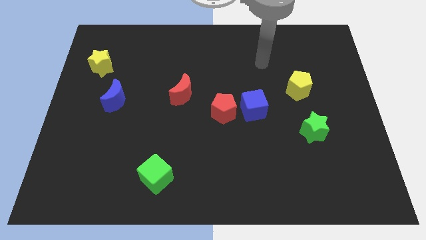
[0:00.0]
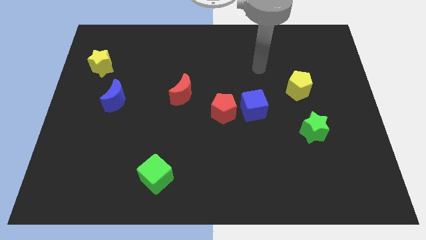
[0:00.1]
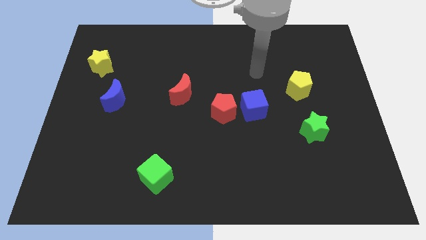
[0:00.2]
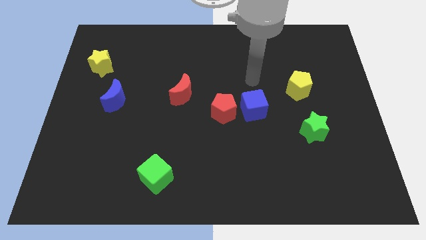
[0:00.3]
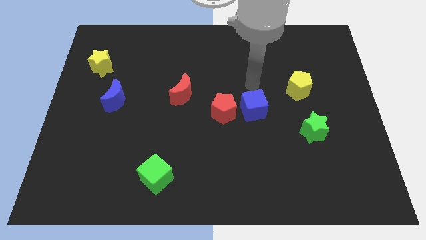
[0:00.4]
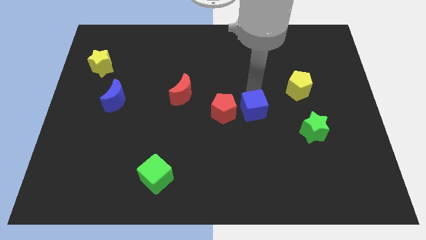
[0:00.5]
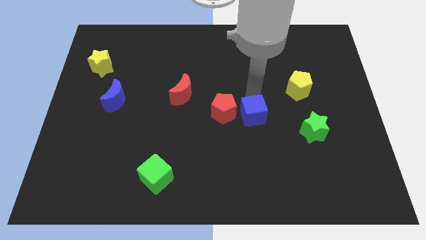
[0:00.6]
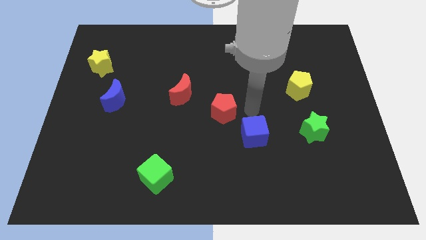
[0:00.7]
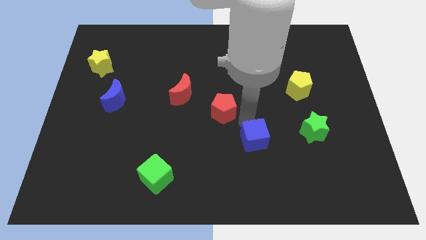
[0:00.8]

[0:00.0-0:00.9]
pull the red pentagon apart from the blue cube

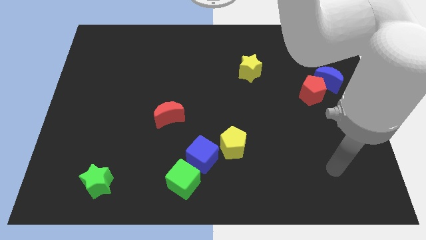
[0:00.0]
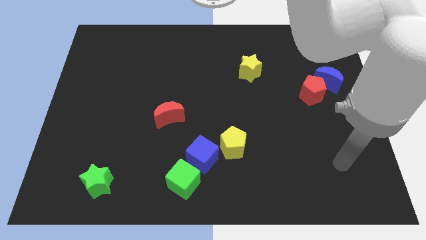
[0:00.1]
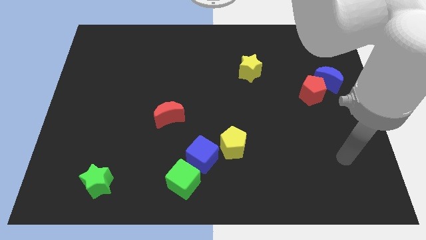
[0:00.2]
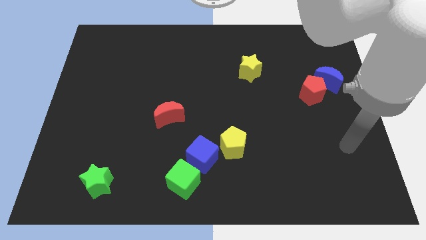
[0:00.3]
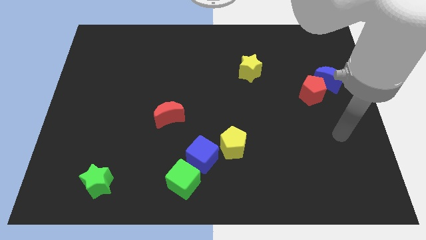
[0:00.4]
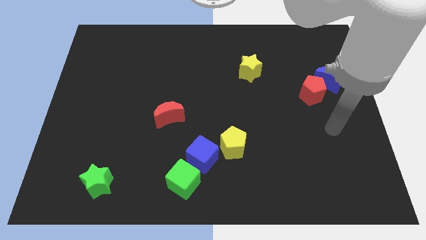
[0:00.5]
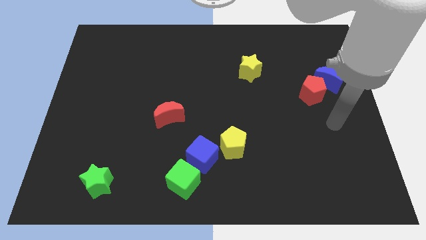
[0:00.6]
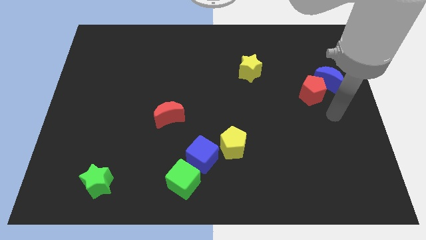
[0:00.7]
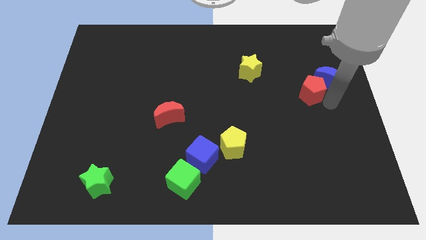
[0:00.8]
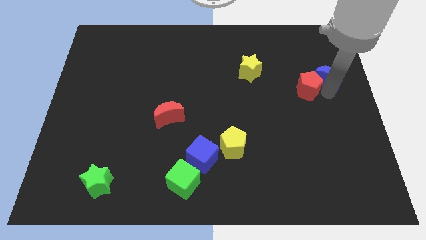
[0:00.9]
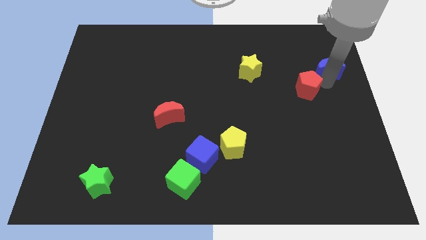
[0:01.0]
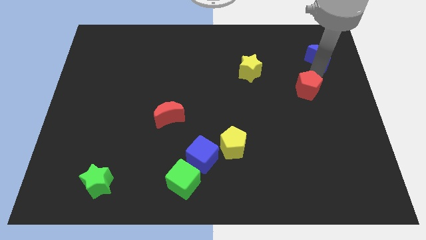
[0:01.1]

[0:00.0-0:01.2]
move the red pentagon away from the blue moon

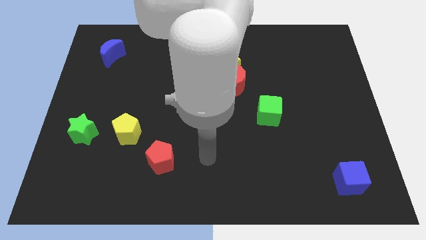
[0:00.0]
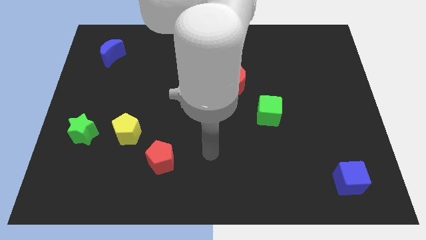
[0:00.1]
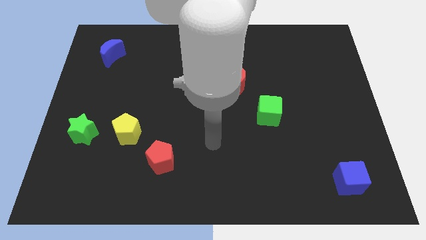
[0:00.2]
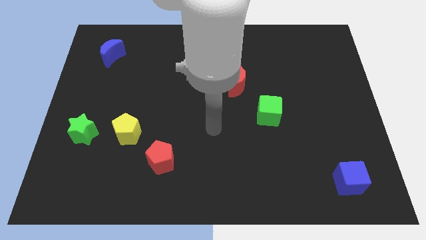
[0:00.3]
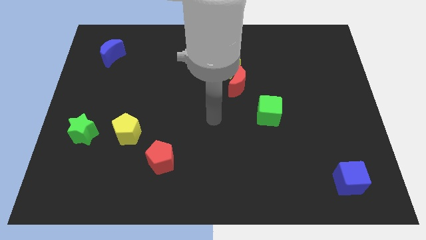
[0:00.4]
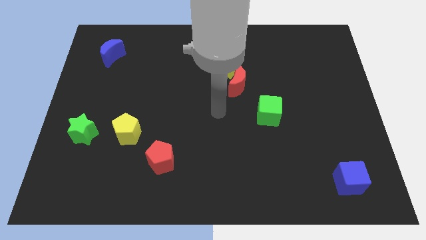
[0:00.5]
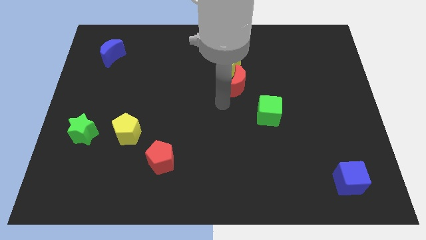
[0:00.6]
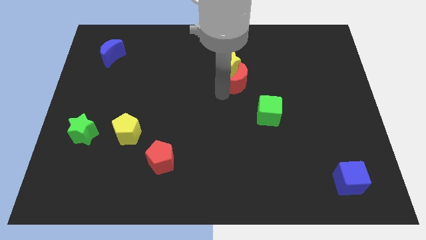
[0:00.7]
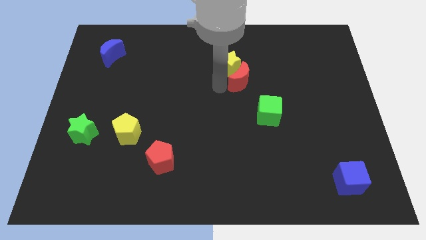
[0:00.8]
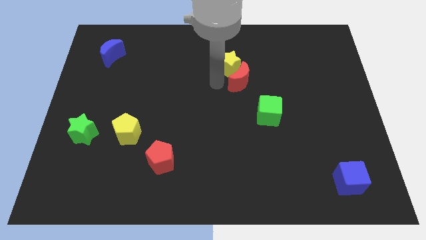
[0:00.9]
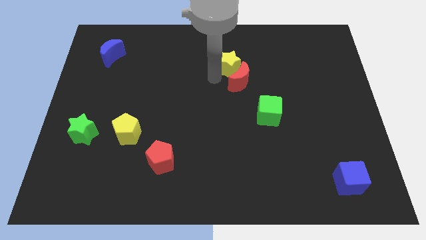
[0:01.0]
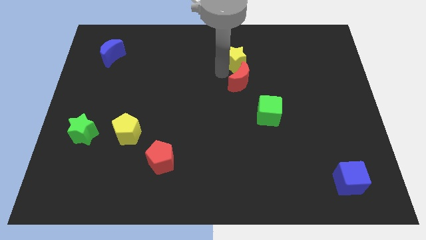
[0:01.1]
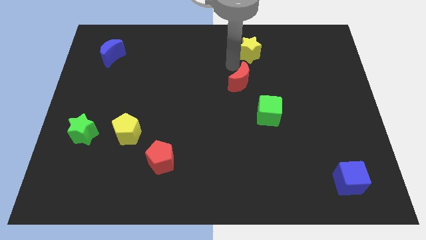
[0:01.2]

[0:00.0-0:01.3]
move the red moon away from the yellow star

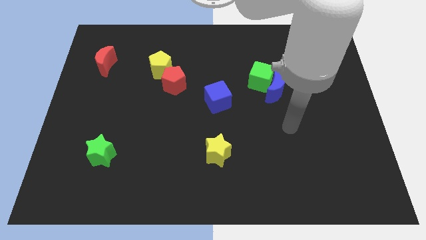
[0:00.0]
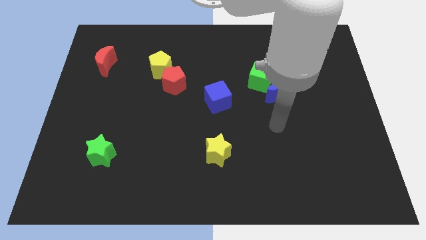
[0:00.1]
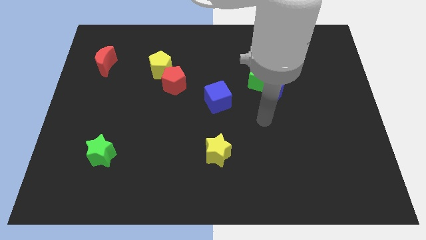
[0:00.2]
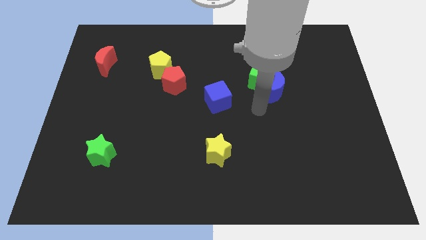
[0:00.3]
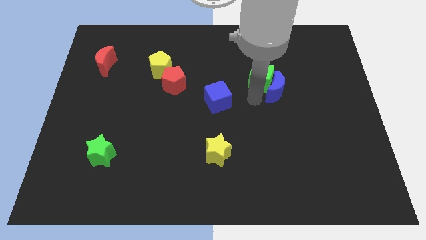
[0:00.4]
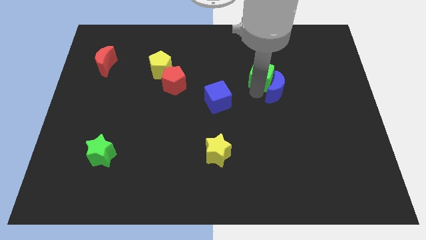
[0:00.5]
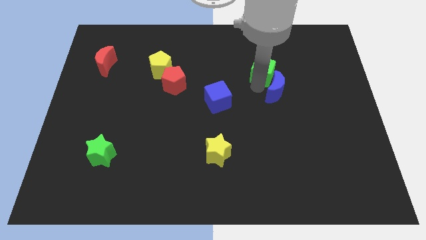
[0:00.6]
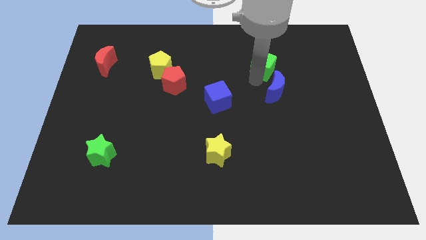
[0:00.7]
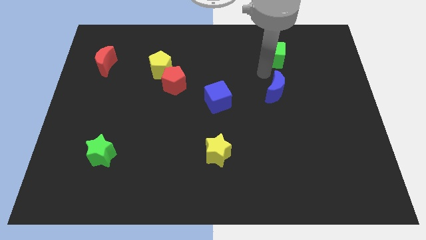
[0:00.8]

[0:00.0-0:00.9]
pull the blue moon apart from the green cube

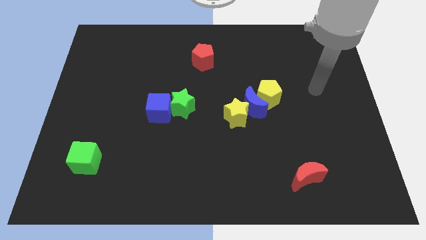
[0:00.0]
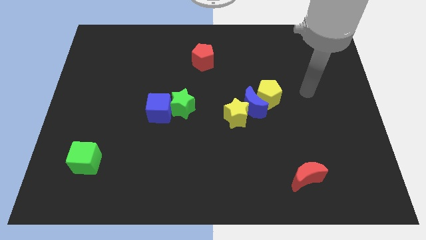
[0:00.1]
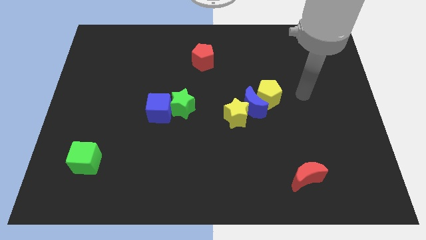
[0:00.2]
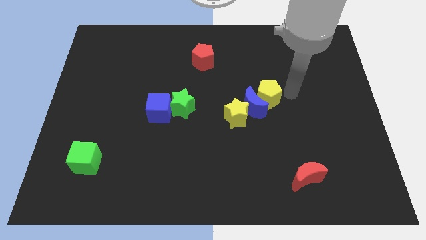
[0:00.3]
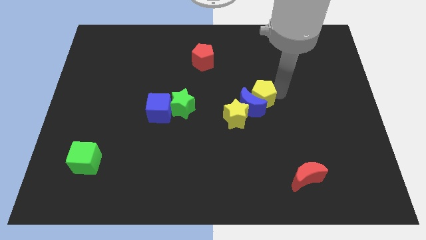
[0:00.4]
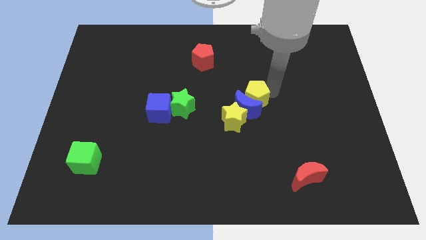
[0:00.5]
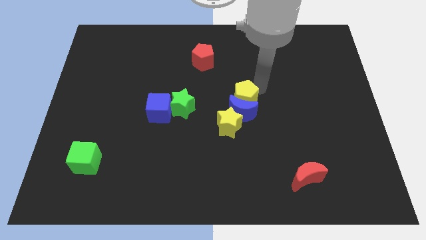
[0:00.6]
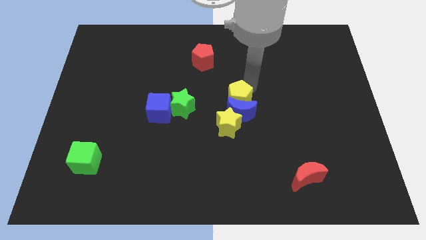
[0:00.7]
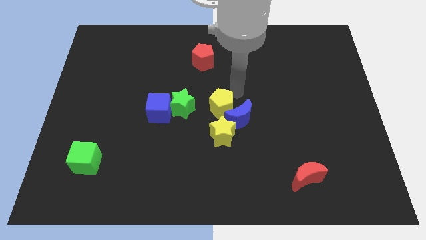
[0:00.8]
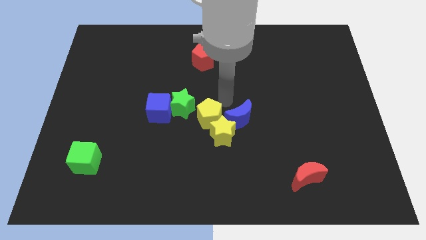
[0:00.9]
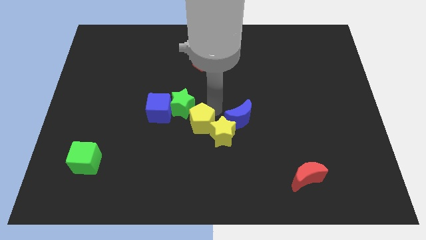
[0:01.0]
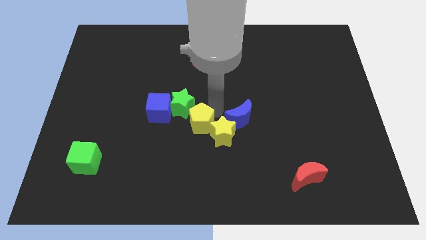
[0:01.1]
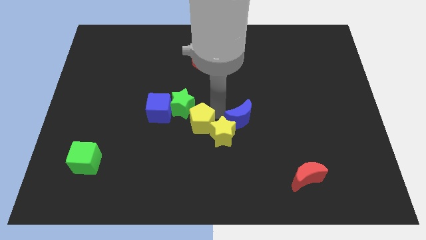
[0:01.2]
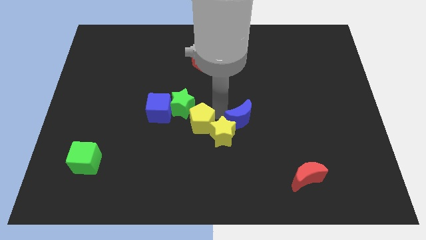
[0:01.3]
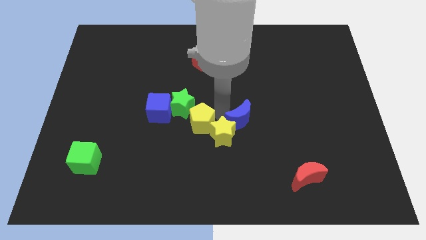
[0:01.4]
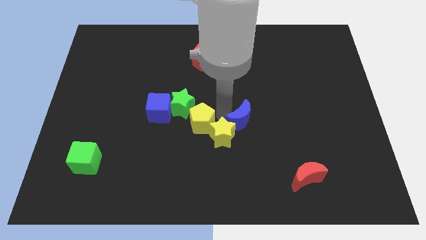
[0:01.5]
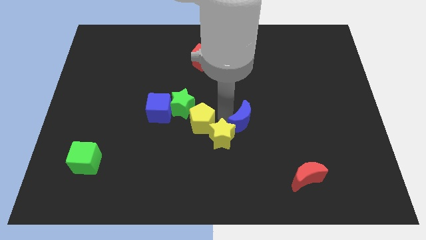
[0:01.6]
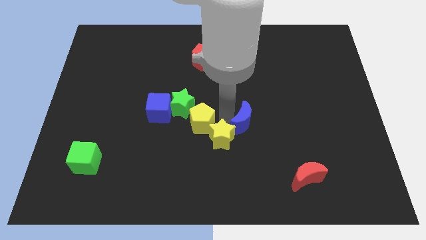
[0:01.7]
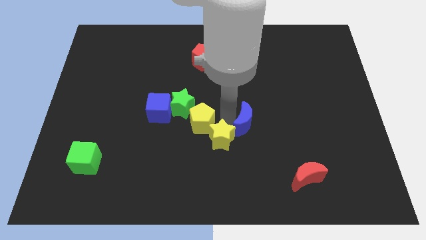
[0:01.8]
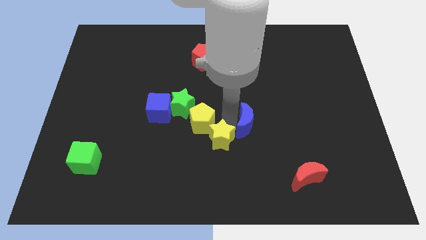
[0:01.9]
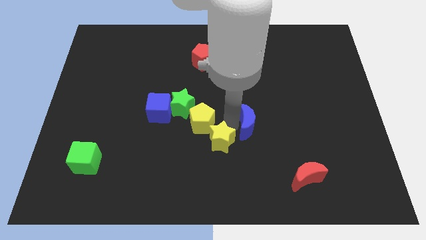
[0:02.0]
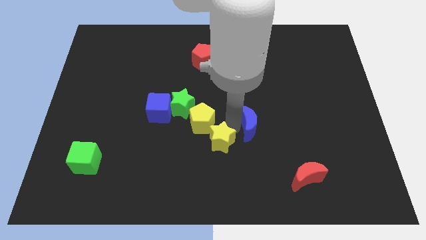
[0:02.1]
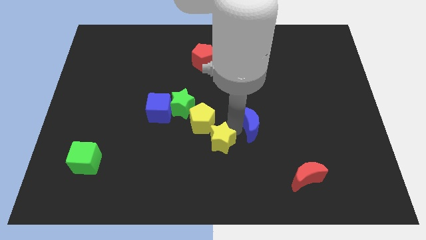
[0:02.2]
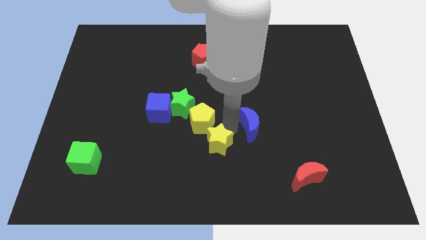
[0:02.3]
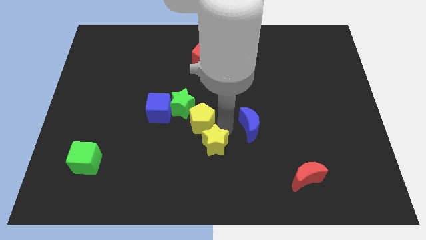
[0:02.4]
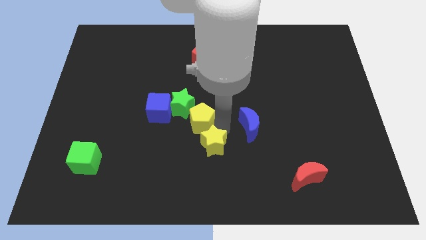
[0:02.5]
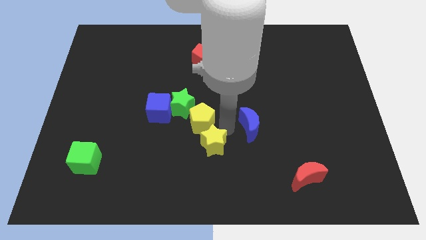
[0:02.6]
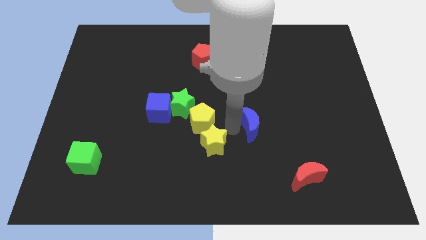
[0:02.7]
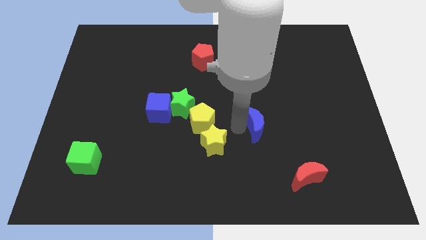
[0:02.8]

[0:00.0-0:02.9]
pull the blue moon apart from the yellow star and yellow pentagon

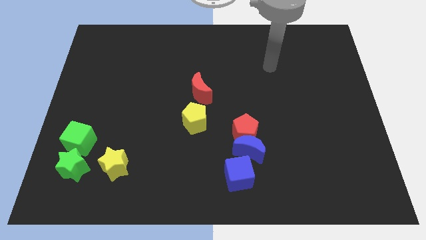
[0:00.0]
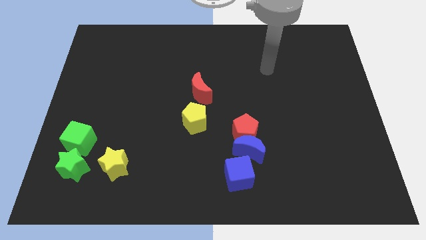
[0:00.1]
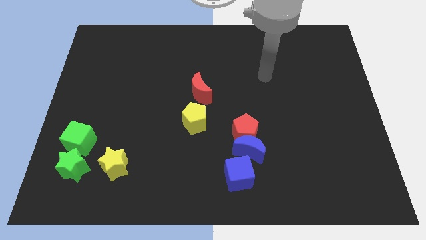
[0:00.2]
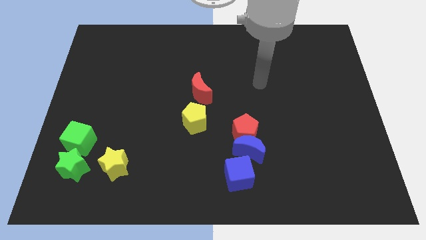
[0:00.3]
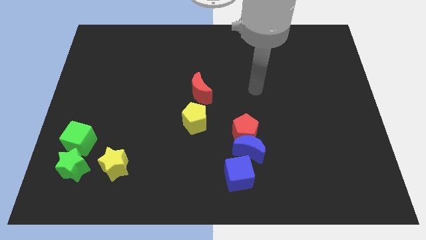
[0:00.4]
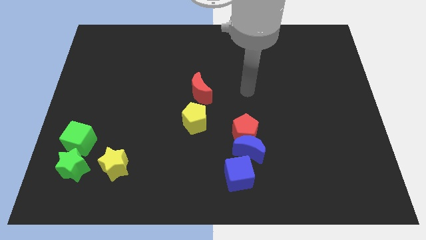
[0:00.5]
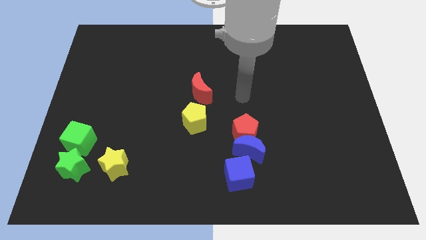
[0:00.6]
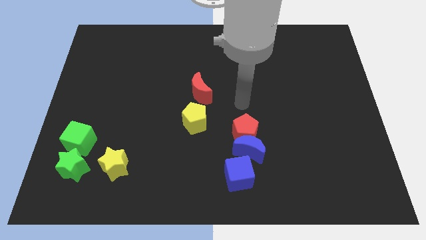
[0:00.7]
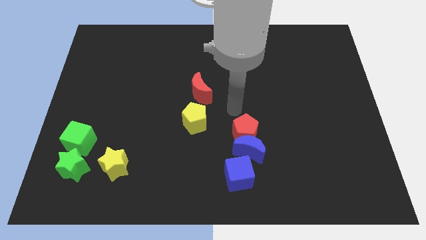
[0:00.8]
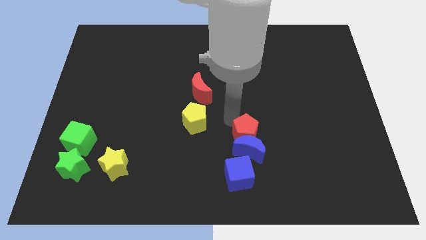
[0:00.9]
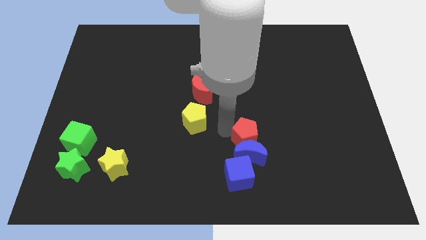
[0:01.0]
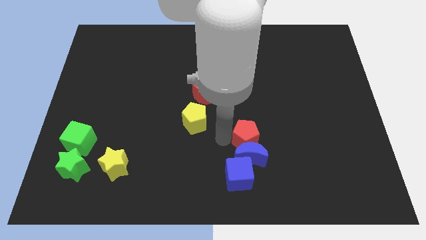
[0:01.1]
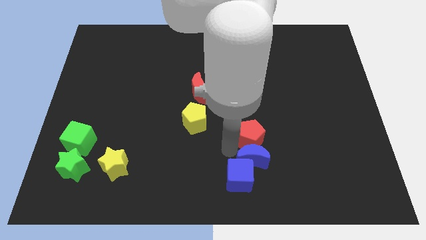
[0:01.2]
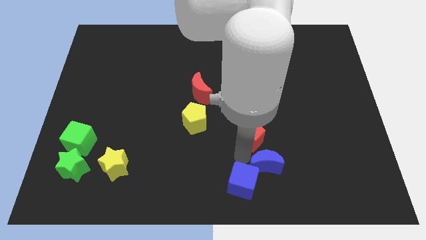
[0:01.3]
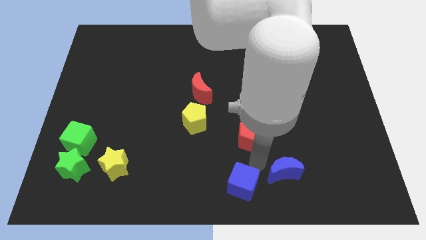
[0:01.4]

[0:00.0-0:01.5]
separate the red pentagon from the blue moon

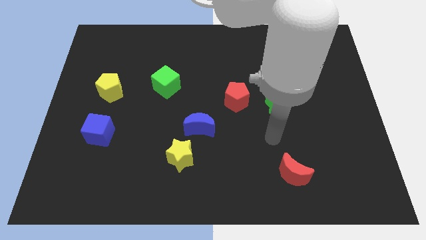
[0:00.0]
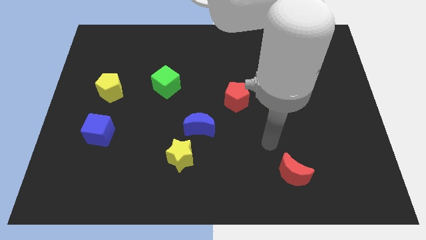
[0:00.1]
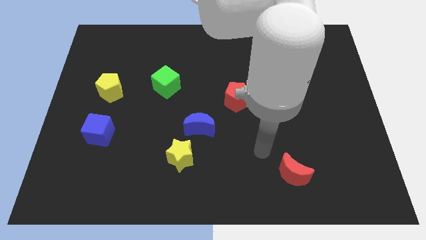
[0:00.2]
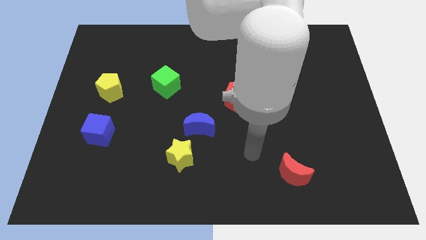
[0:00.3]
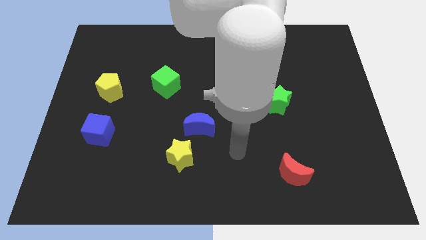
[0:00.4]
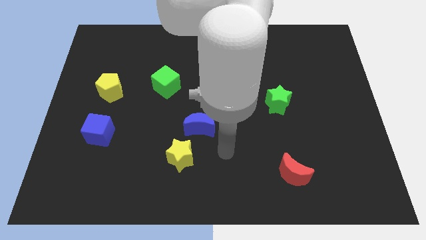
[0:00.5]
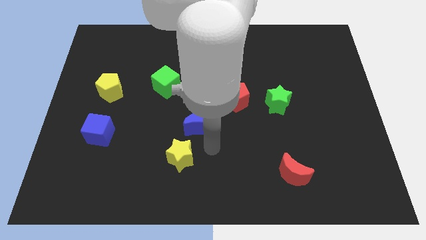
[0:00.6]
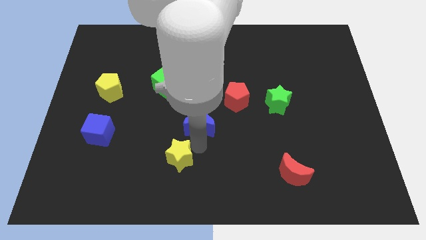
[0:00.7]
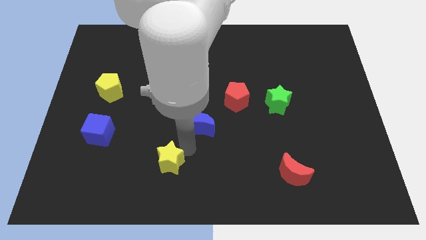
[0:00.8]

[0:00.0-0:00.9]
move the blue moon away from the yellow star
